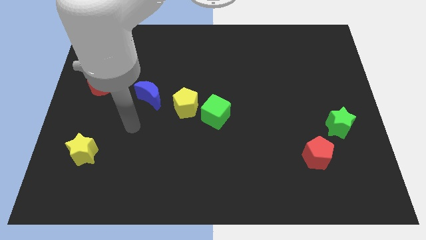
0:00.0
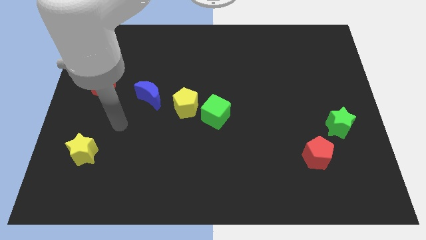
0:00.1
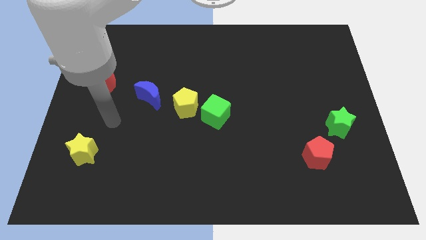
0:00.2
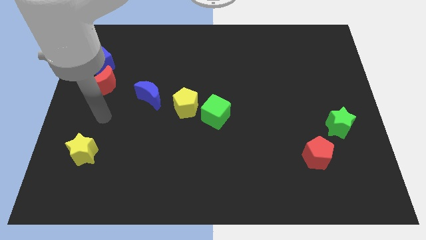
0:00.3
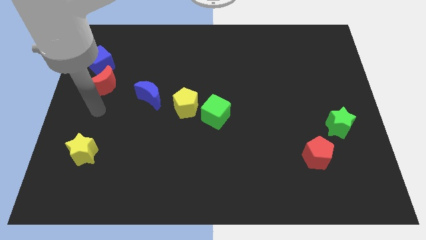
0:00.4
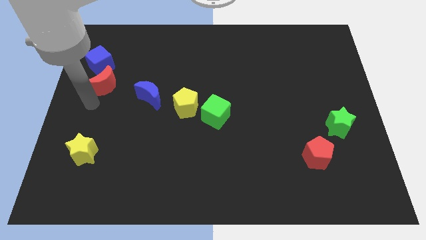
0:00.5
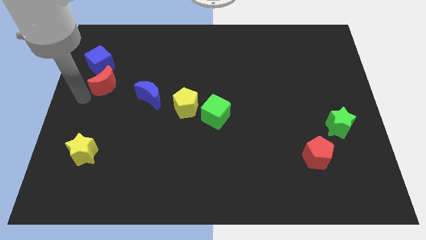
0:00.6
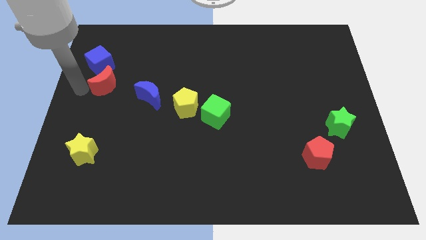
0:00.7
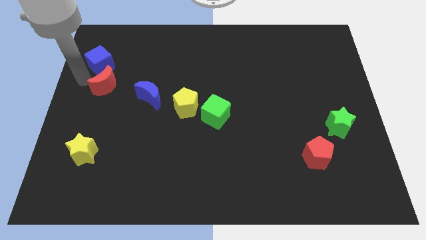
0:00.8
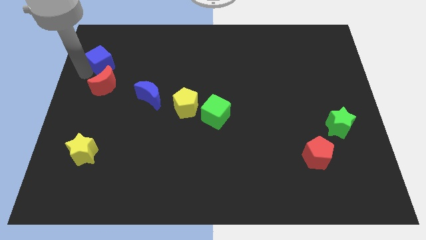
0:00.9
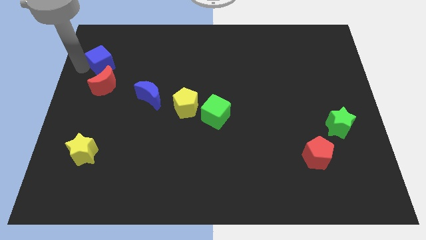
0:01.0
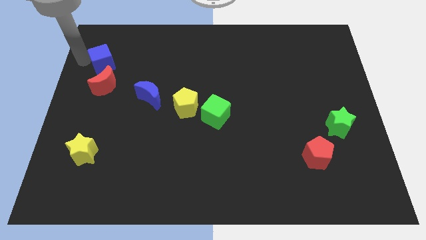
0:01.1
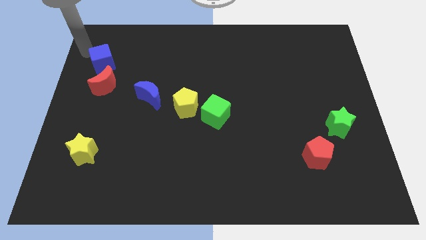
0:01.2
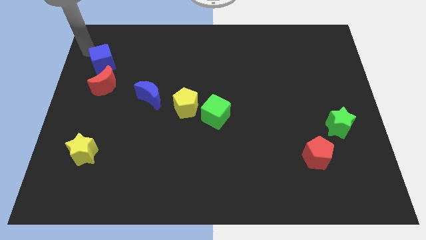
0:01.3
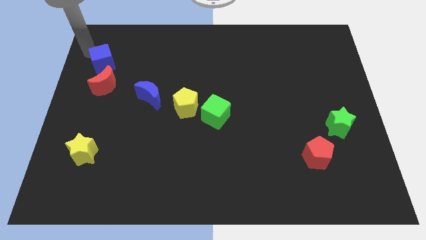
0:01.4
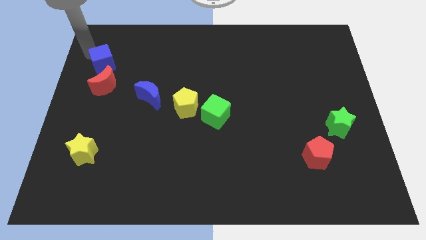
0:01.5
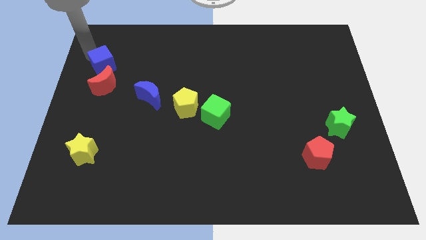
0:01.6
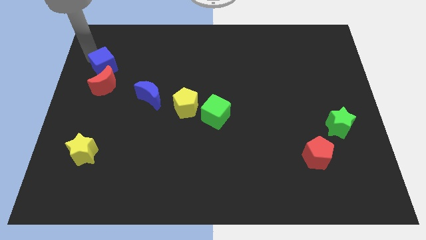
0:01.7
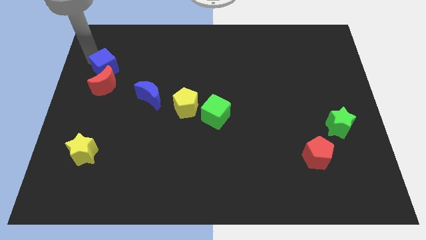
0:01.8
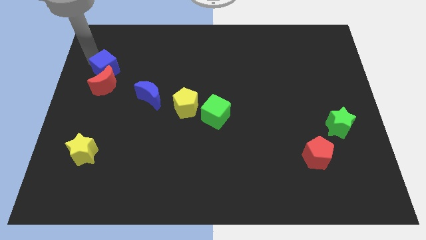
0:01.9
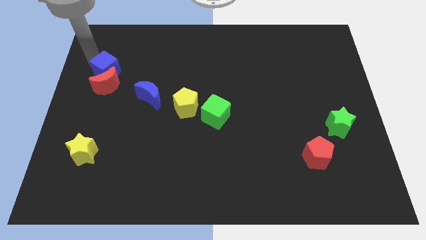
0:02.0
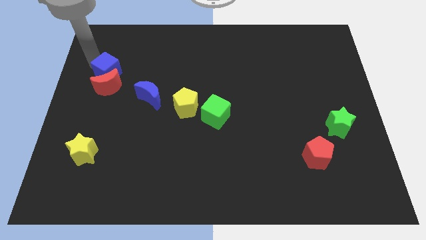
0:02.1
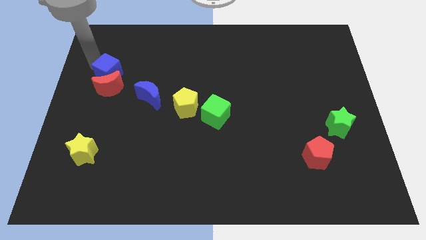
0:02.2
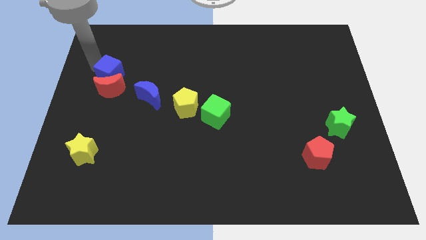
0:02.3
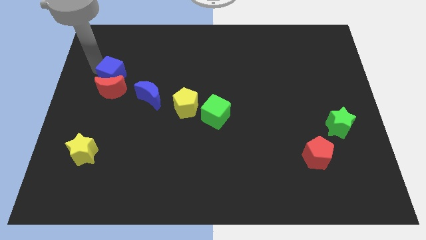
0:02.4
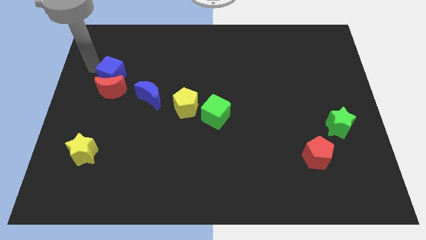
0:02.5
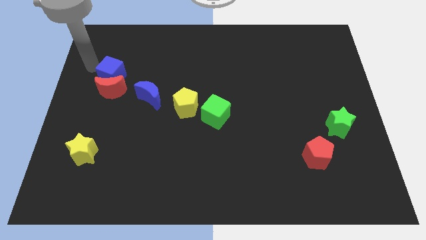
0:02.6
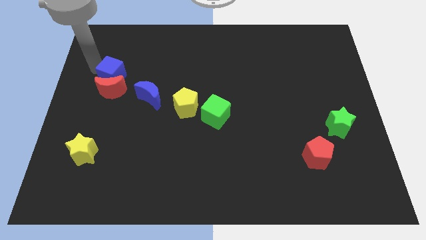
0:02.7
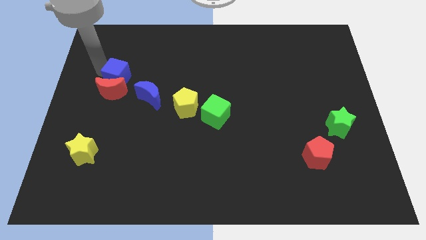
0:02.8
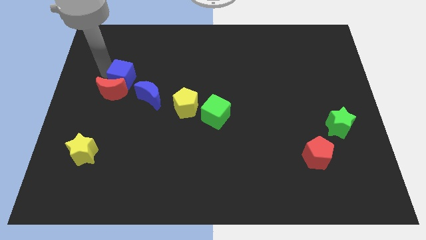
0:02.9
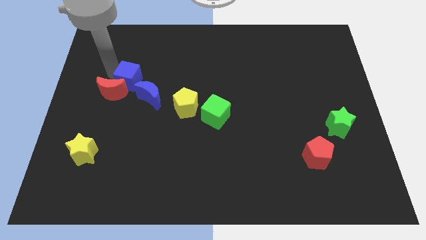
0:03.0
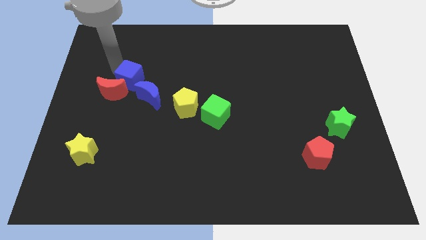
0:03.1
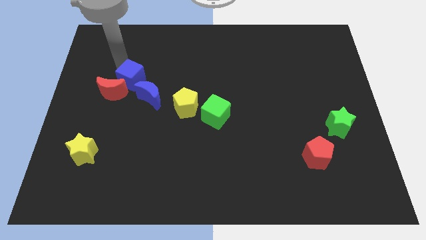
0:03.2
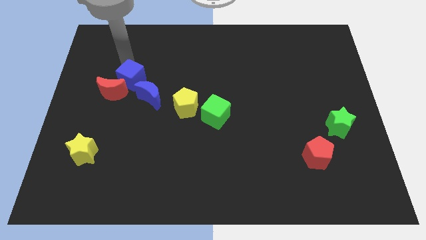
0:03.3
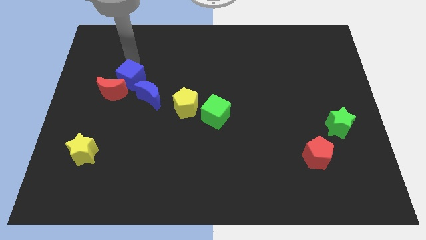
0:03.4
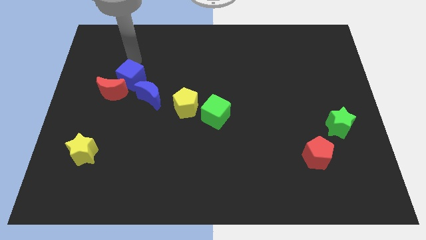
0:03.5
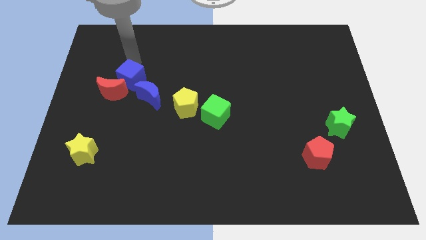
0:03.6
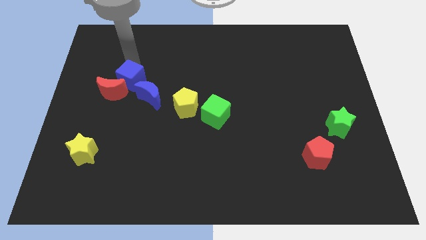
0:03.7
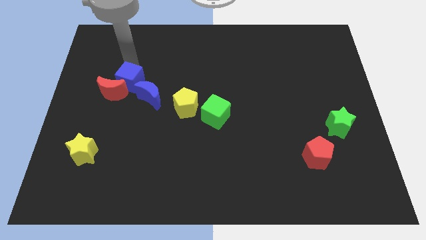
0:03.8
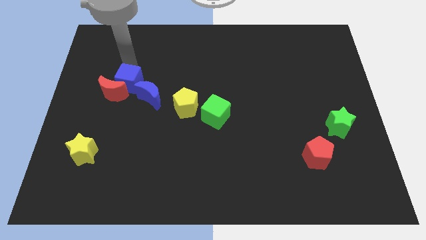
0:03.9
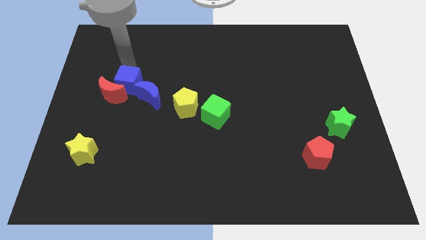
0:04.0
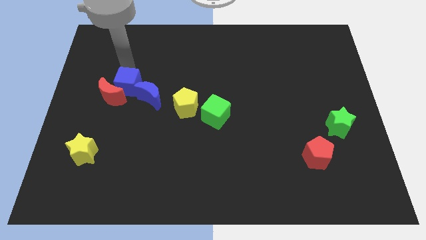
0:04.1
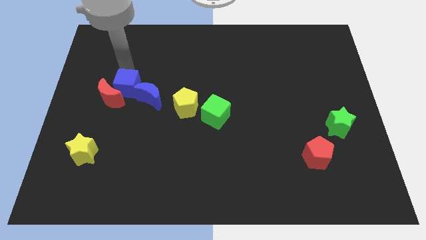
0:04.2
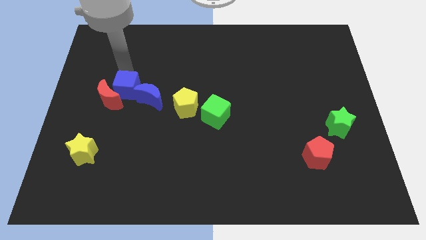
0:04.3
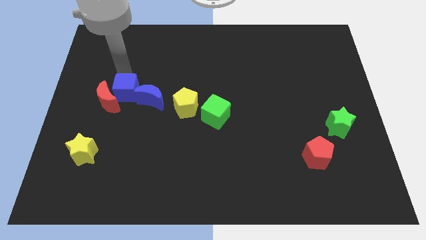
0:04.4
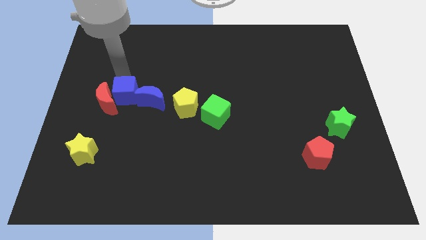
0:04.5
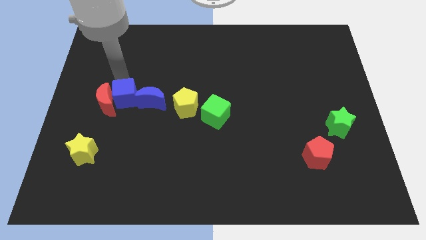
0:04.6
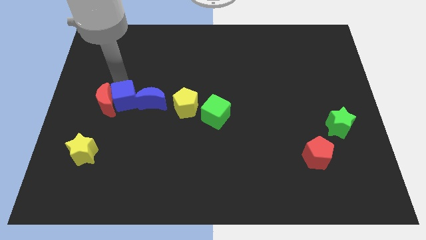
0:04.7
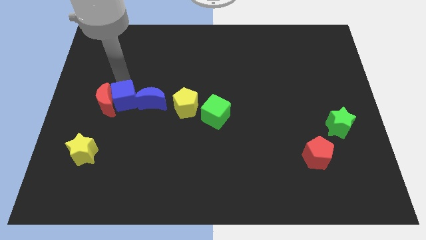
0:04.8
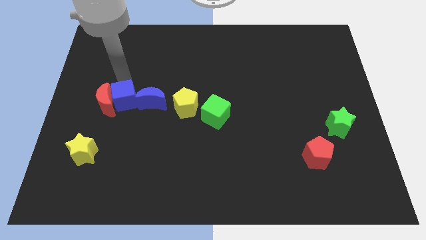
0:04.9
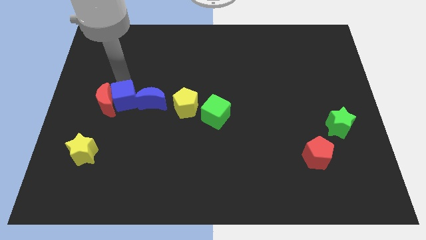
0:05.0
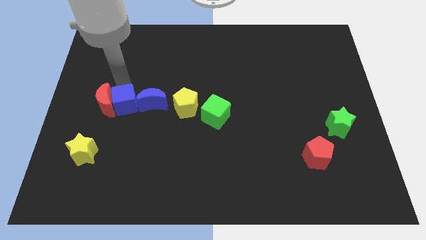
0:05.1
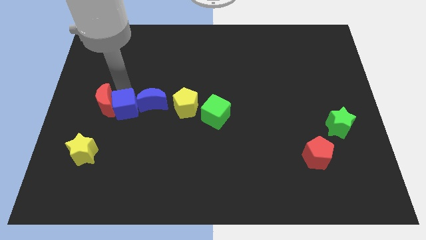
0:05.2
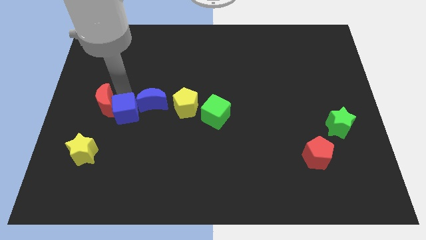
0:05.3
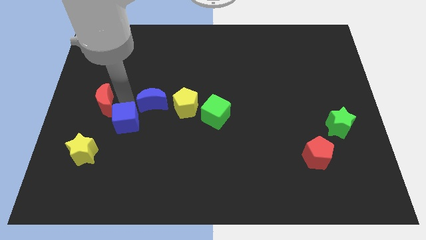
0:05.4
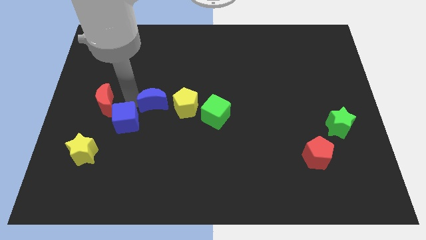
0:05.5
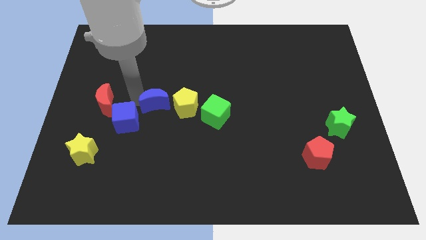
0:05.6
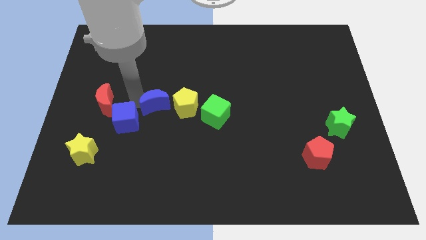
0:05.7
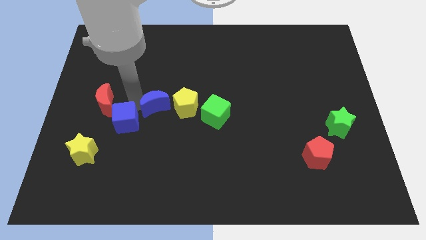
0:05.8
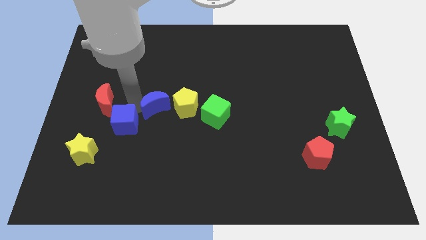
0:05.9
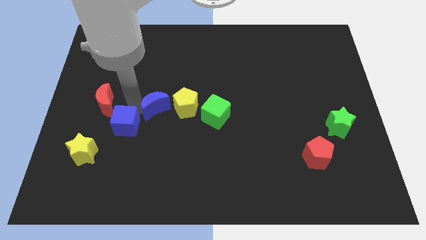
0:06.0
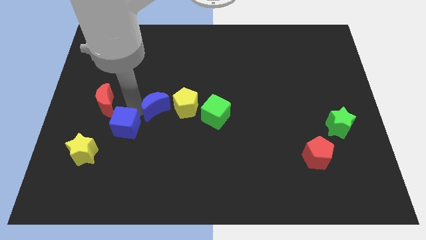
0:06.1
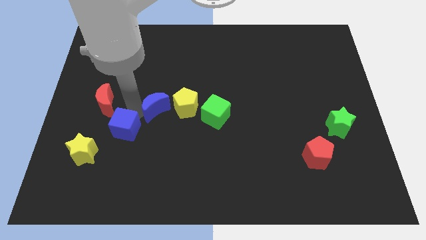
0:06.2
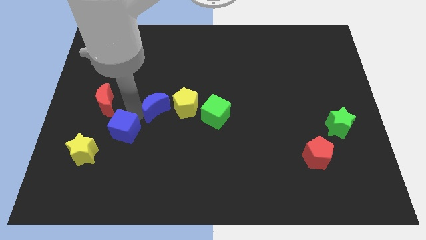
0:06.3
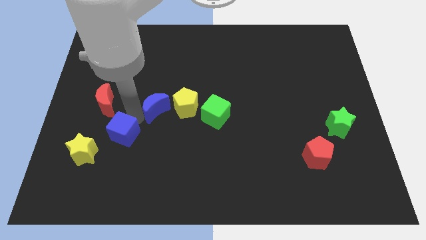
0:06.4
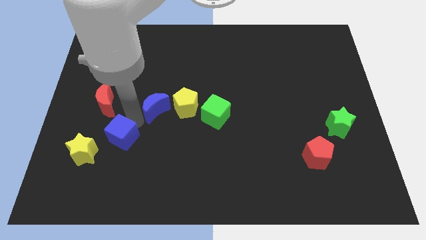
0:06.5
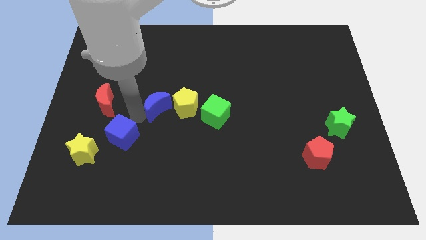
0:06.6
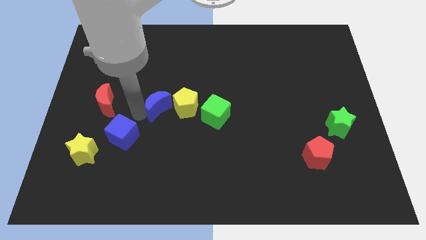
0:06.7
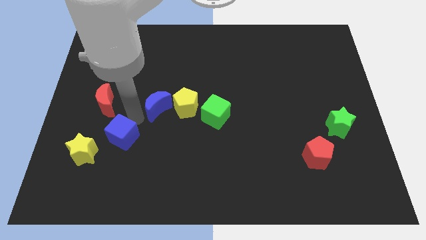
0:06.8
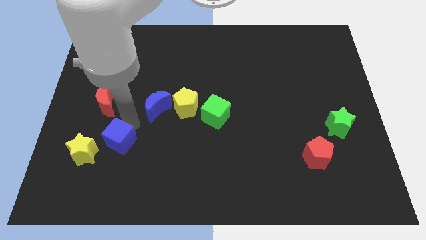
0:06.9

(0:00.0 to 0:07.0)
slide the blue cube down

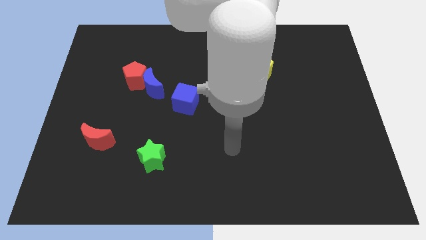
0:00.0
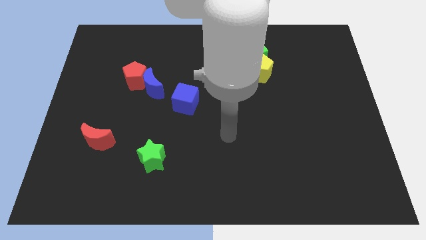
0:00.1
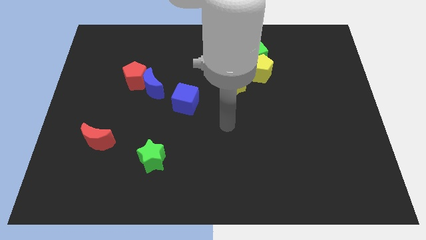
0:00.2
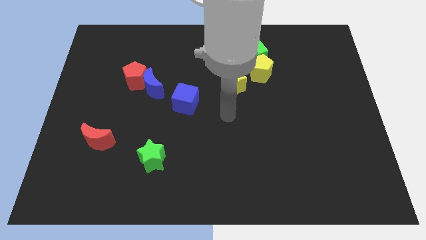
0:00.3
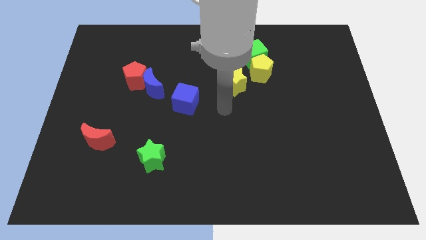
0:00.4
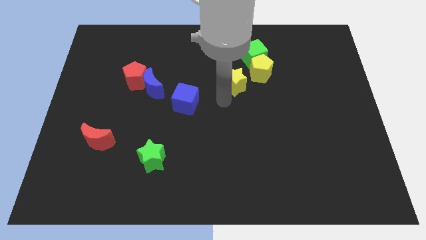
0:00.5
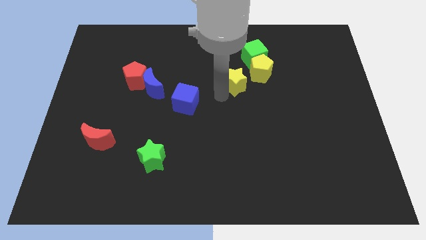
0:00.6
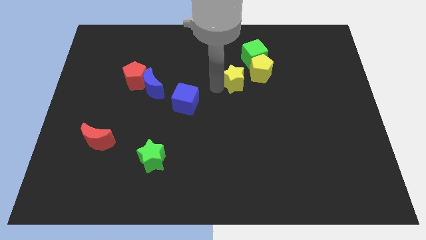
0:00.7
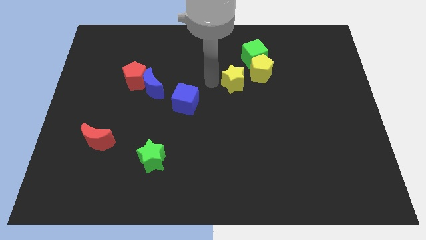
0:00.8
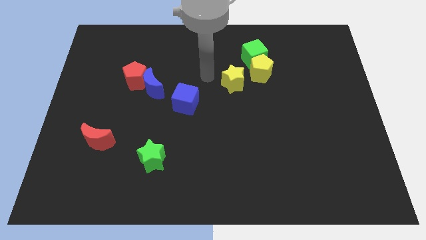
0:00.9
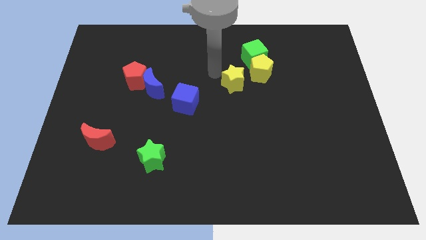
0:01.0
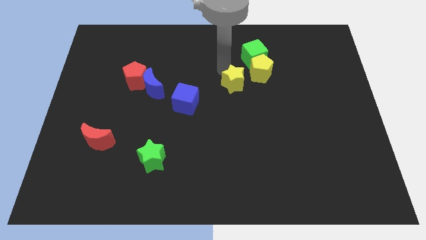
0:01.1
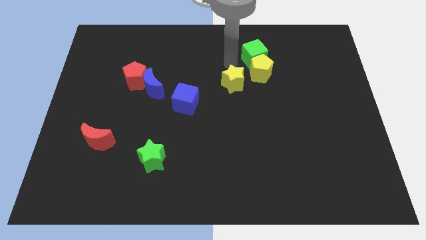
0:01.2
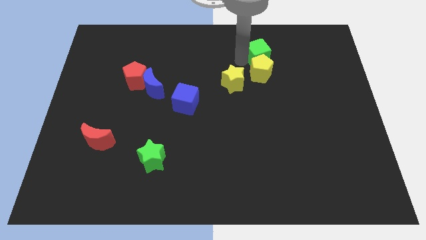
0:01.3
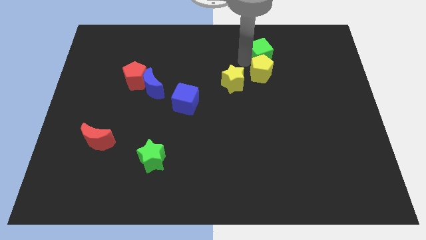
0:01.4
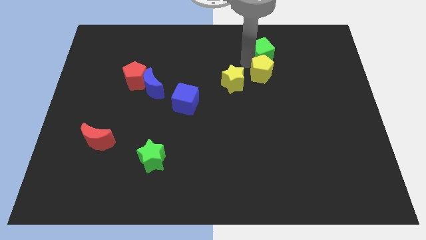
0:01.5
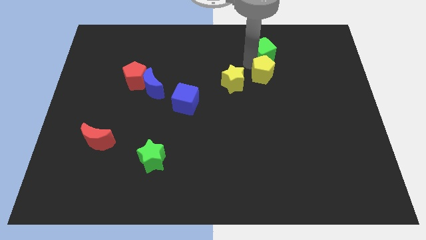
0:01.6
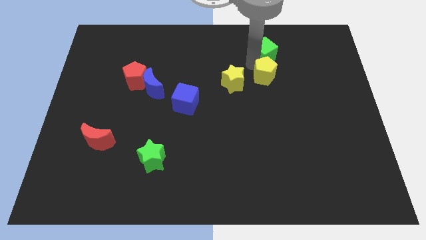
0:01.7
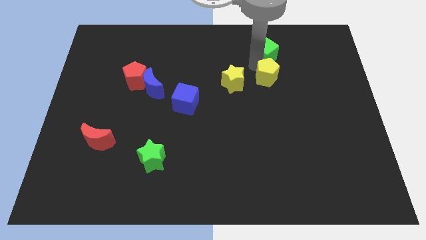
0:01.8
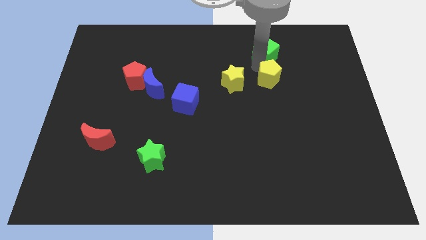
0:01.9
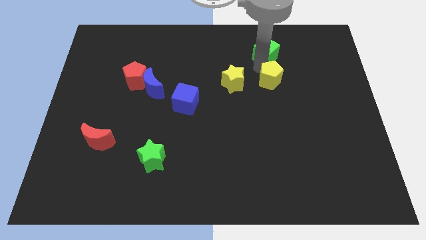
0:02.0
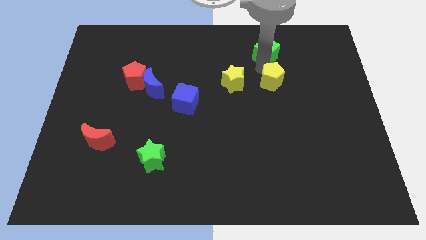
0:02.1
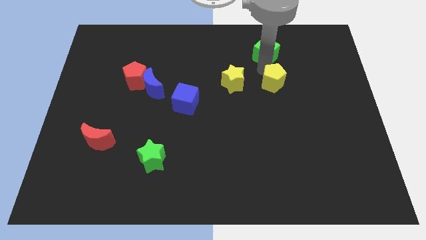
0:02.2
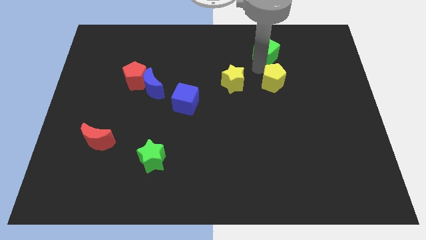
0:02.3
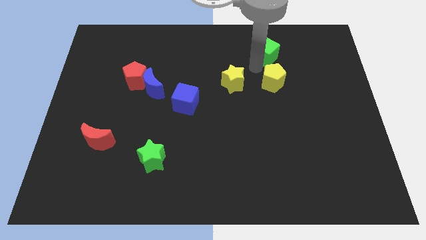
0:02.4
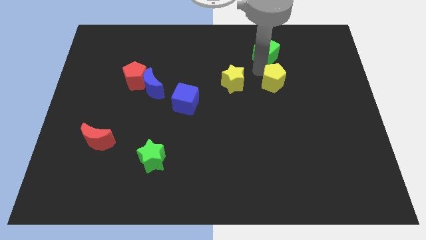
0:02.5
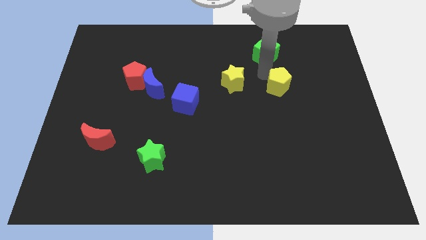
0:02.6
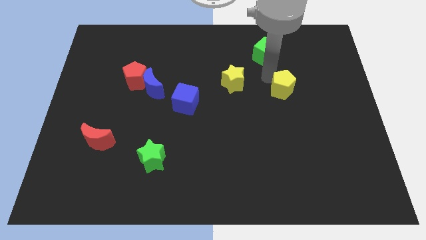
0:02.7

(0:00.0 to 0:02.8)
slightly push the yellow pentagon diagonally down and to the right
